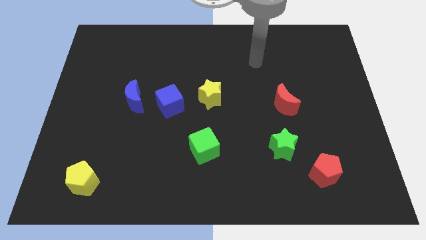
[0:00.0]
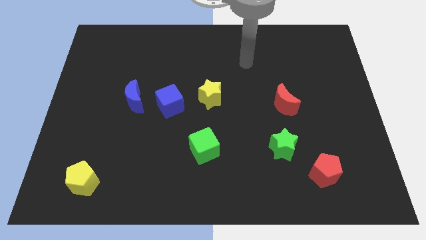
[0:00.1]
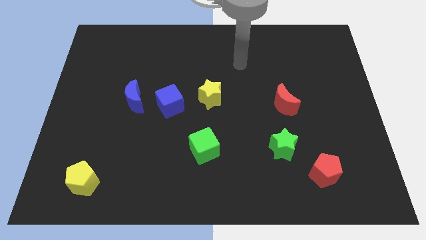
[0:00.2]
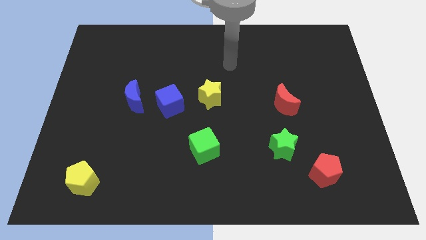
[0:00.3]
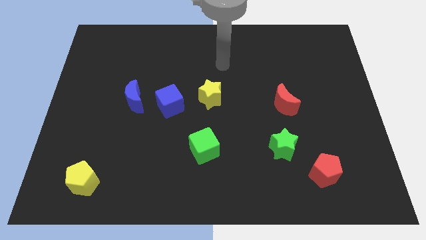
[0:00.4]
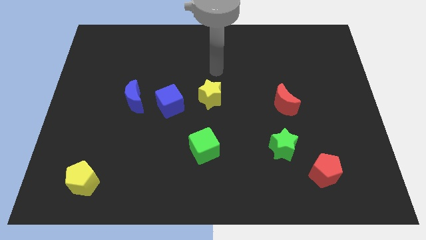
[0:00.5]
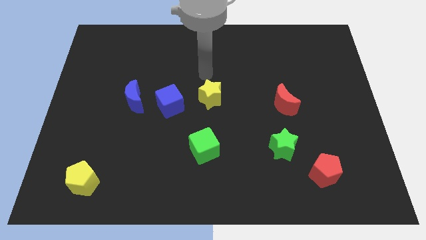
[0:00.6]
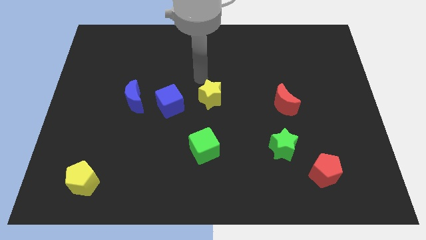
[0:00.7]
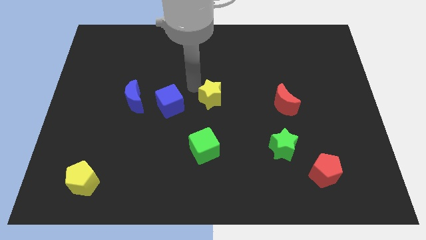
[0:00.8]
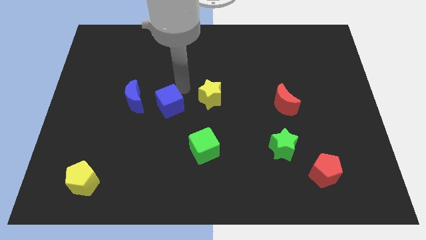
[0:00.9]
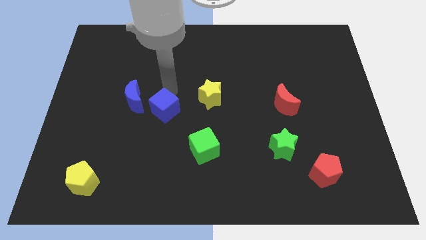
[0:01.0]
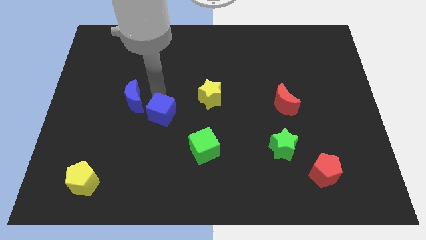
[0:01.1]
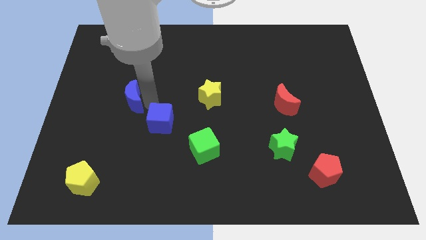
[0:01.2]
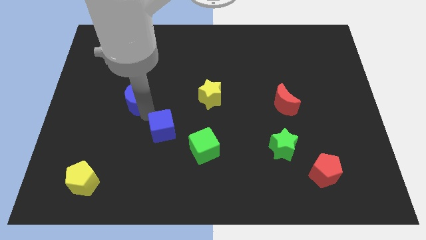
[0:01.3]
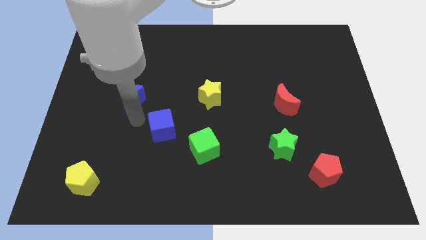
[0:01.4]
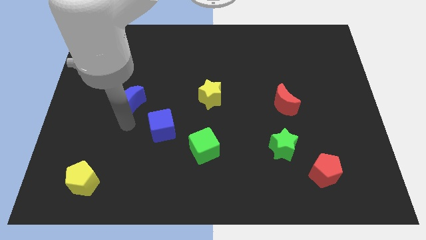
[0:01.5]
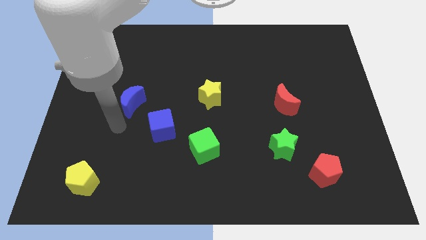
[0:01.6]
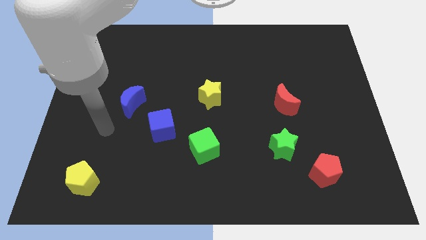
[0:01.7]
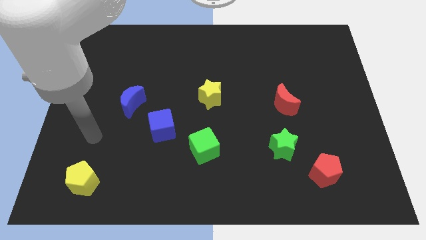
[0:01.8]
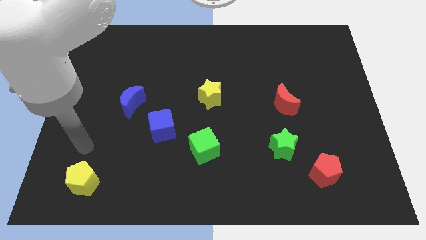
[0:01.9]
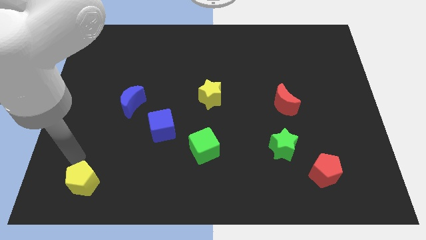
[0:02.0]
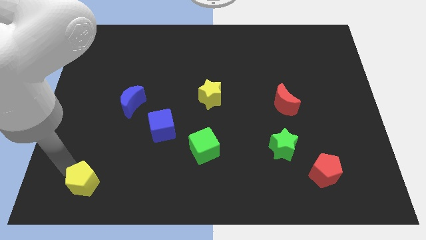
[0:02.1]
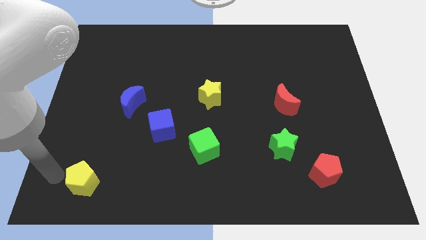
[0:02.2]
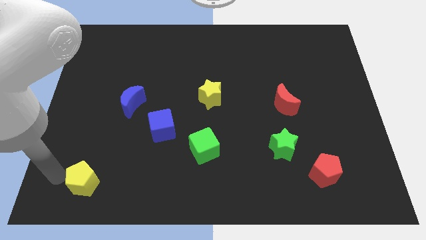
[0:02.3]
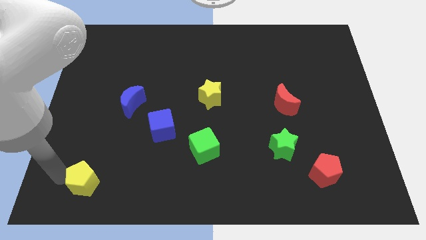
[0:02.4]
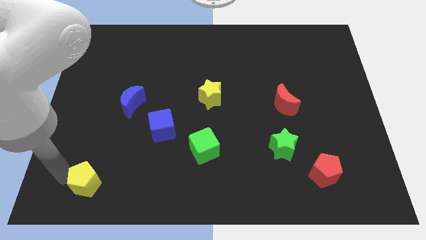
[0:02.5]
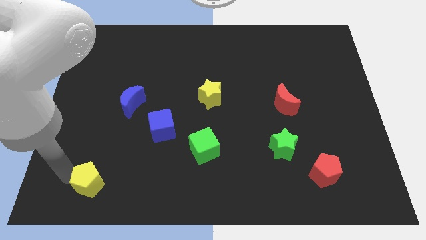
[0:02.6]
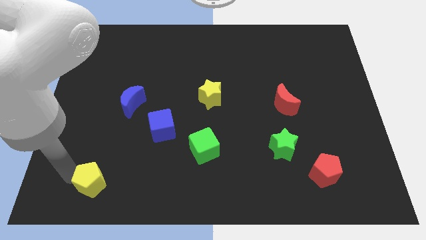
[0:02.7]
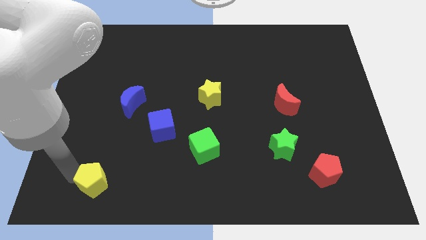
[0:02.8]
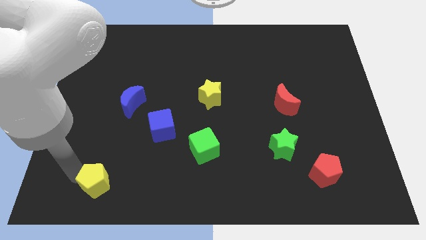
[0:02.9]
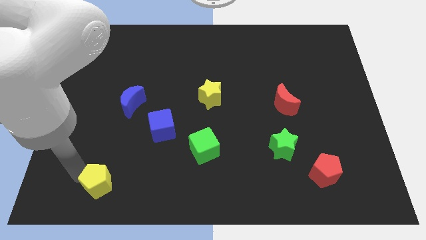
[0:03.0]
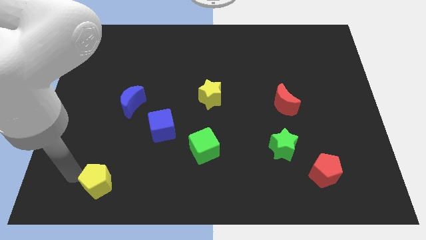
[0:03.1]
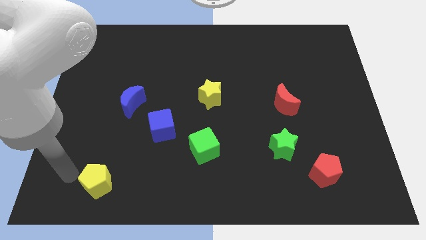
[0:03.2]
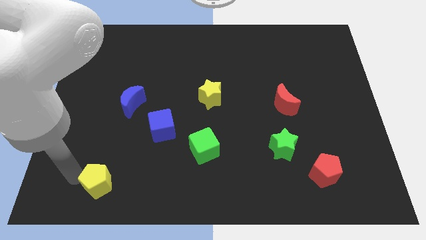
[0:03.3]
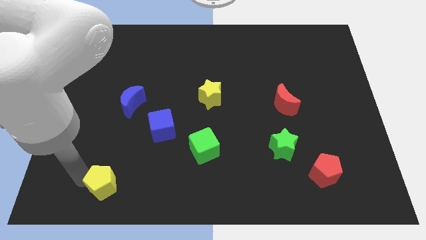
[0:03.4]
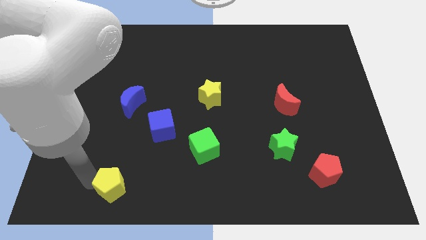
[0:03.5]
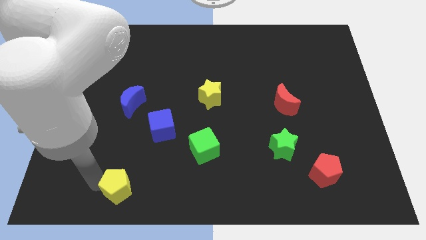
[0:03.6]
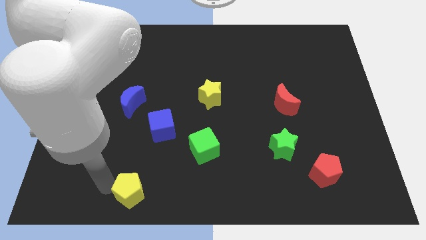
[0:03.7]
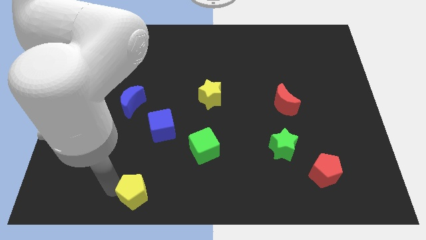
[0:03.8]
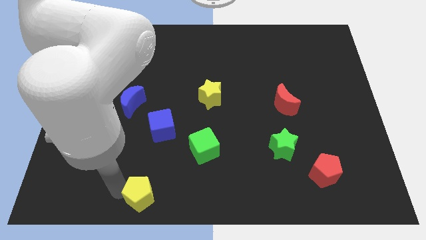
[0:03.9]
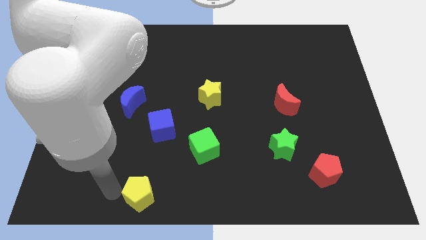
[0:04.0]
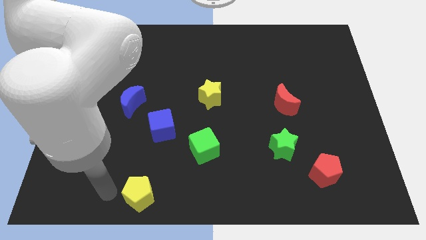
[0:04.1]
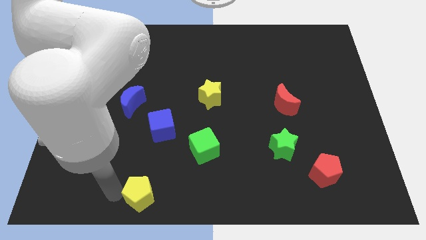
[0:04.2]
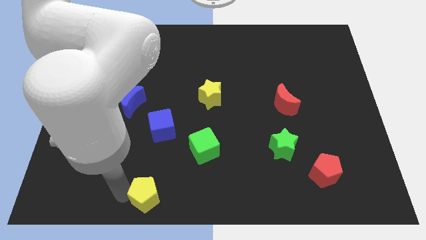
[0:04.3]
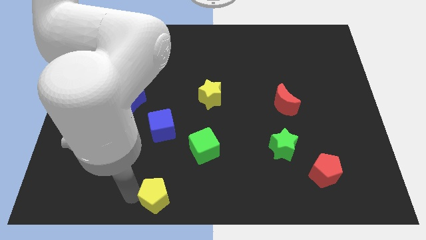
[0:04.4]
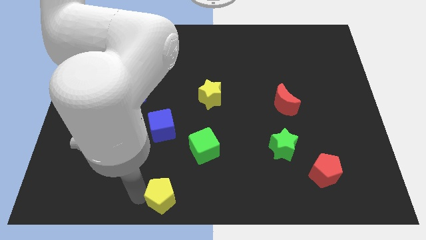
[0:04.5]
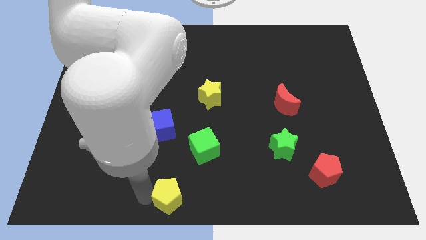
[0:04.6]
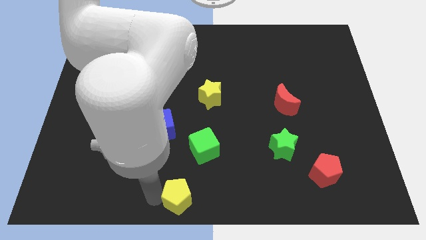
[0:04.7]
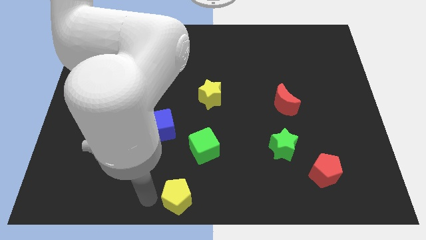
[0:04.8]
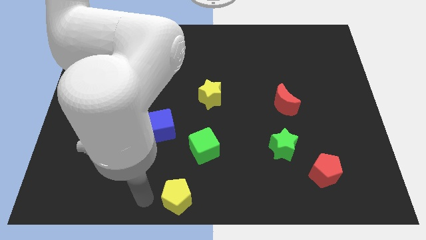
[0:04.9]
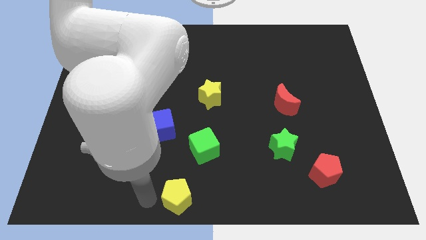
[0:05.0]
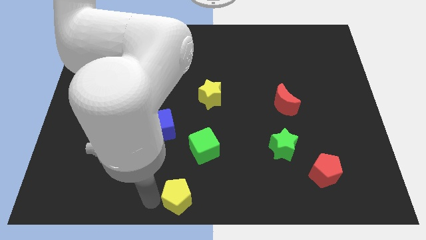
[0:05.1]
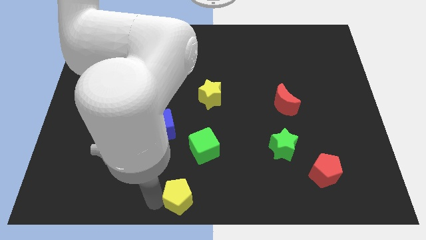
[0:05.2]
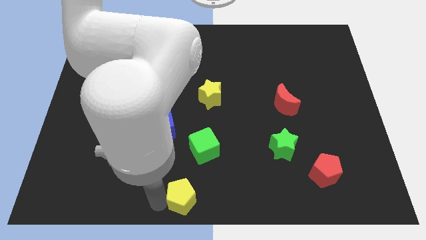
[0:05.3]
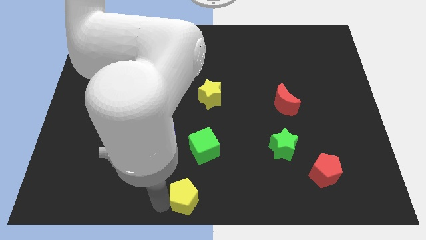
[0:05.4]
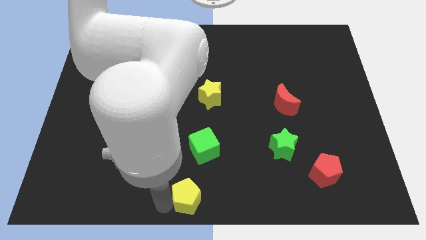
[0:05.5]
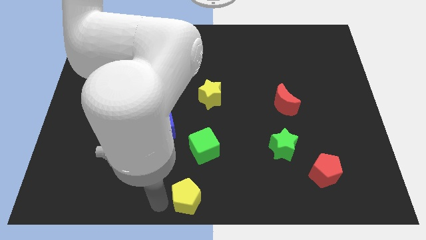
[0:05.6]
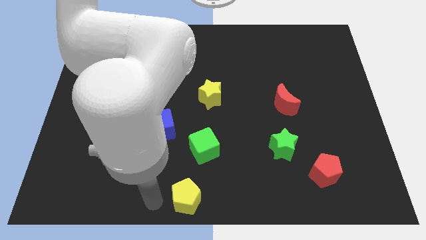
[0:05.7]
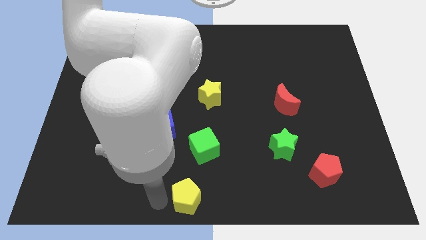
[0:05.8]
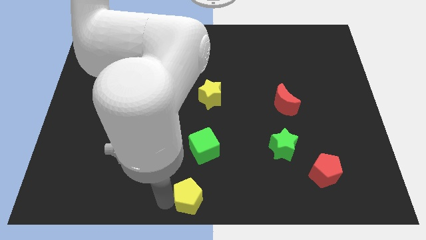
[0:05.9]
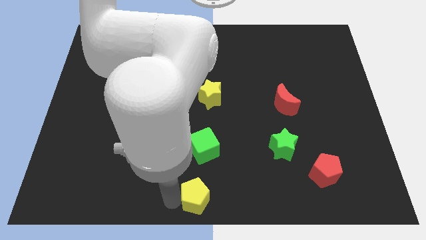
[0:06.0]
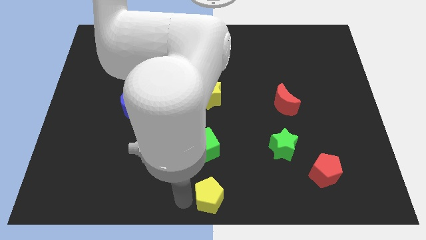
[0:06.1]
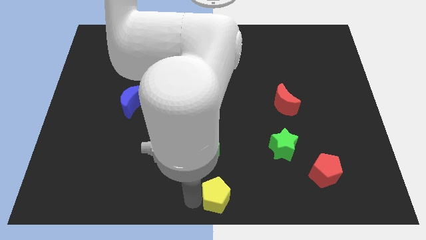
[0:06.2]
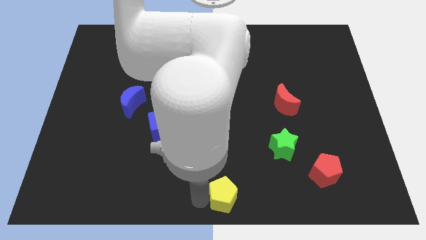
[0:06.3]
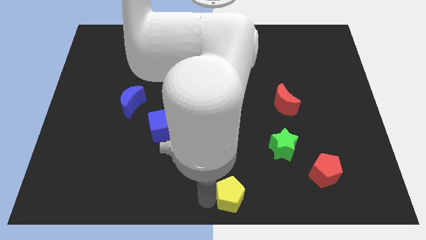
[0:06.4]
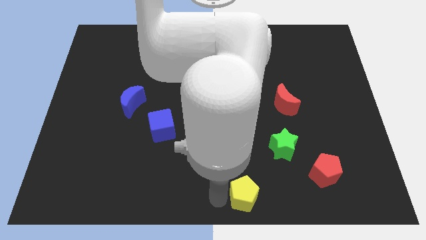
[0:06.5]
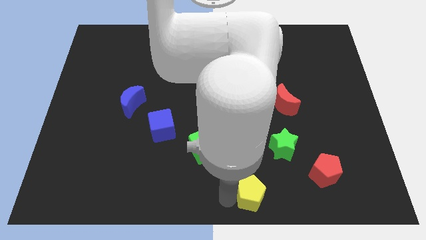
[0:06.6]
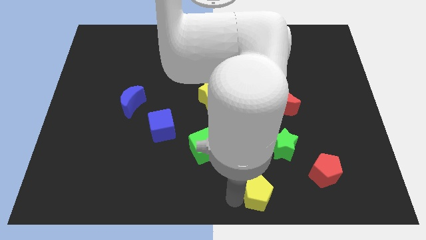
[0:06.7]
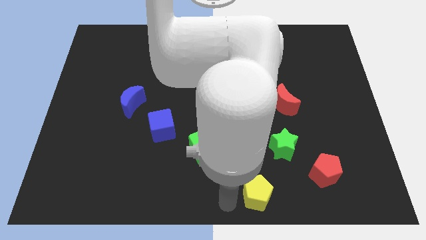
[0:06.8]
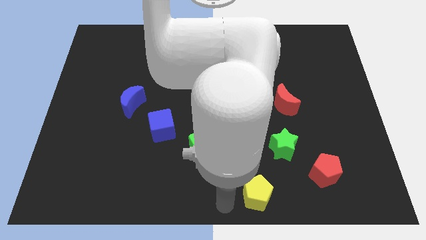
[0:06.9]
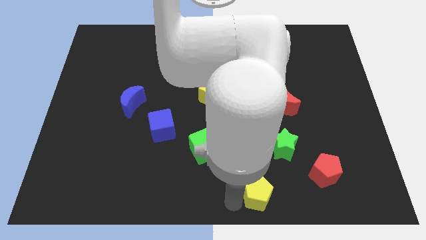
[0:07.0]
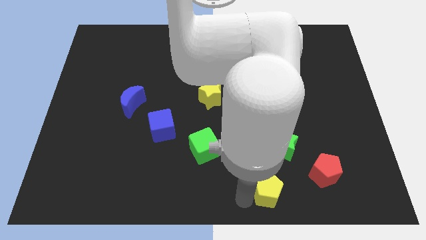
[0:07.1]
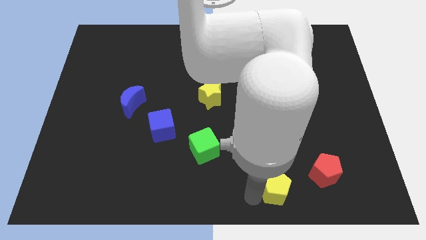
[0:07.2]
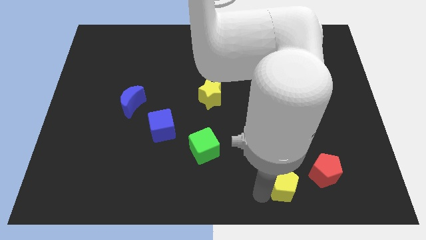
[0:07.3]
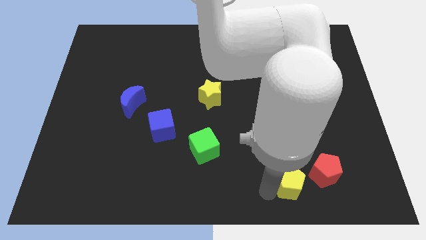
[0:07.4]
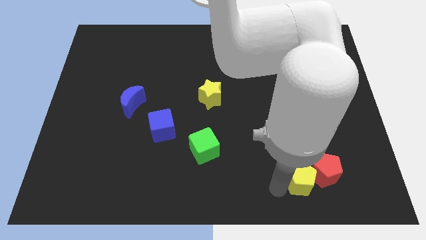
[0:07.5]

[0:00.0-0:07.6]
slide the yellow pentagon next to the red pentagon
